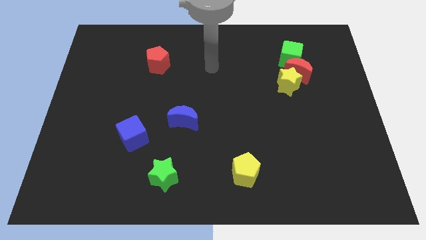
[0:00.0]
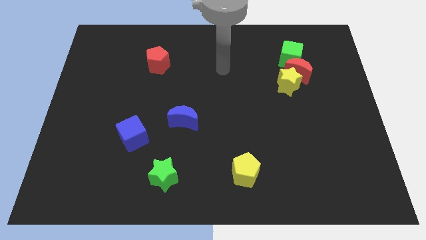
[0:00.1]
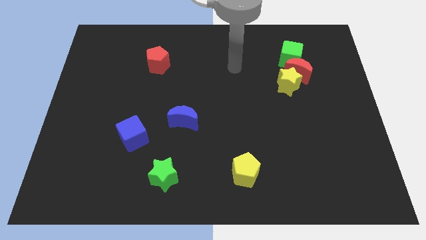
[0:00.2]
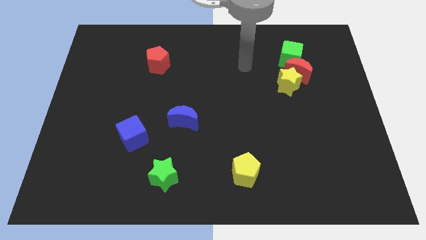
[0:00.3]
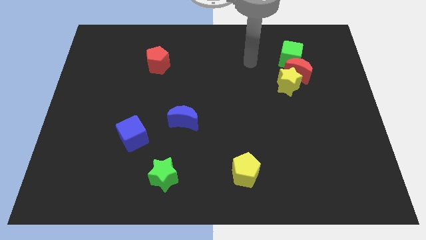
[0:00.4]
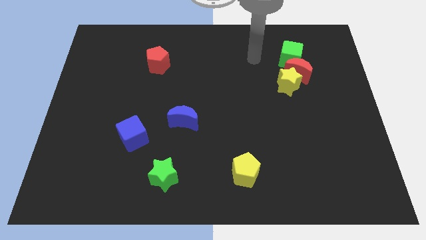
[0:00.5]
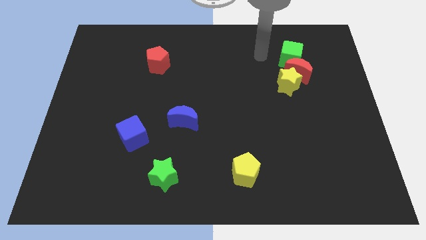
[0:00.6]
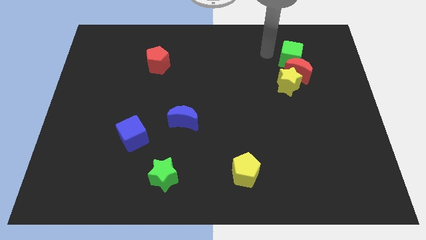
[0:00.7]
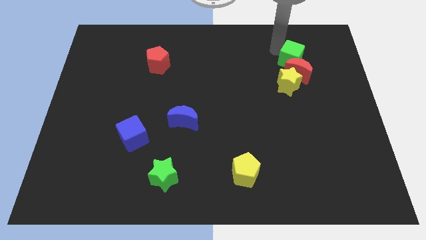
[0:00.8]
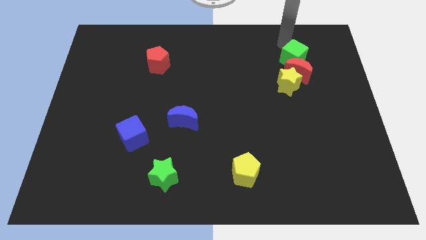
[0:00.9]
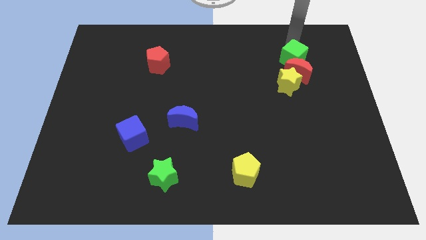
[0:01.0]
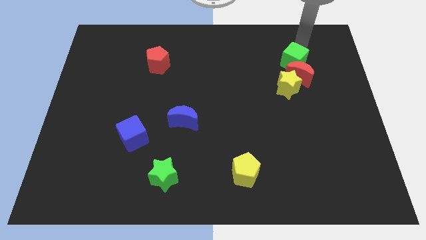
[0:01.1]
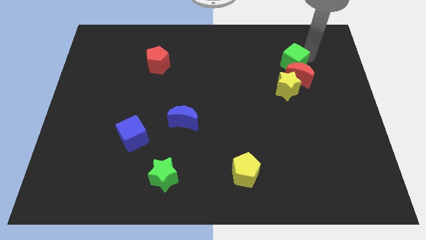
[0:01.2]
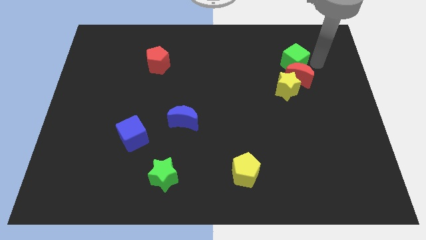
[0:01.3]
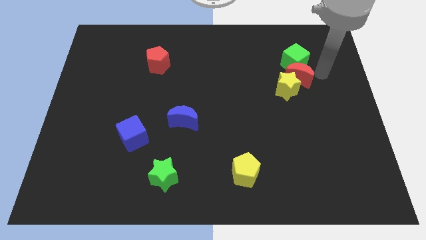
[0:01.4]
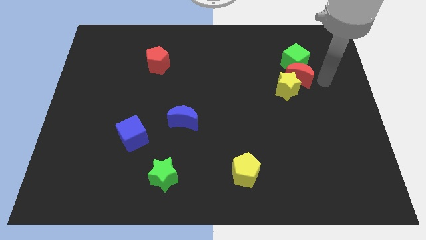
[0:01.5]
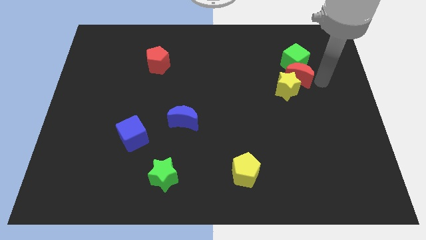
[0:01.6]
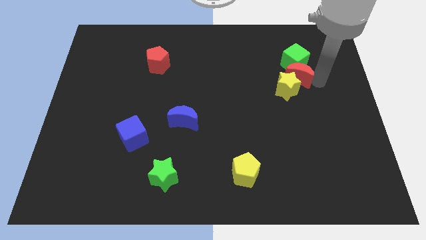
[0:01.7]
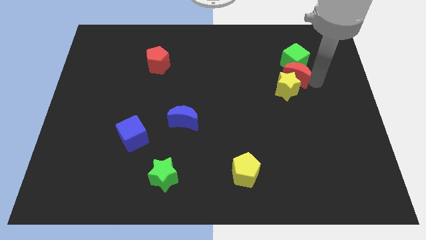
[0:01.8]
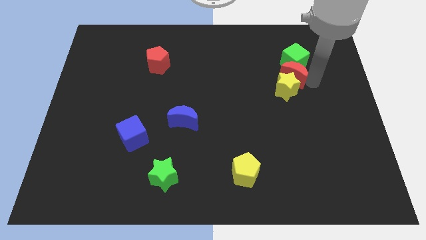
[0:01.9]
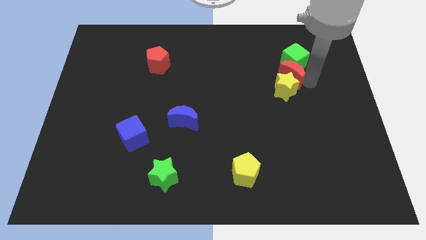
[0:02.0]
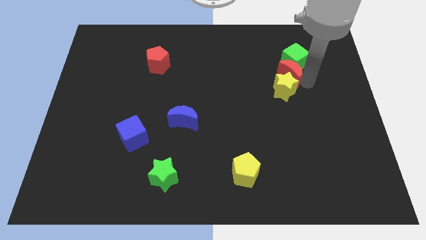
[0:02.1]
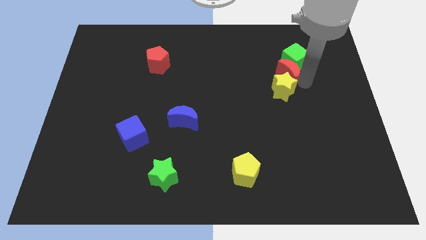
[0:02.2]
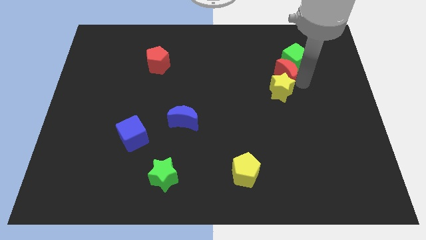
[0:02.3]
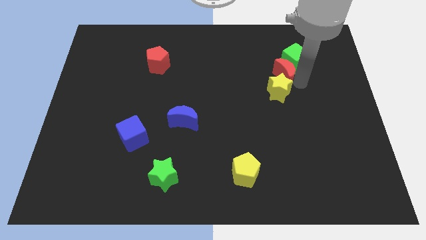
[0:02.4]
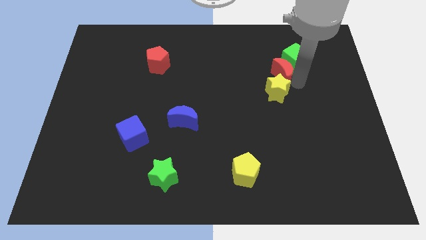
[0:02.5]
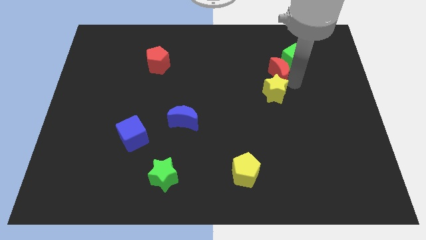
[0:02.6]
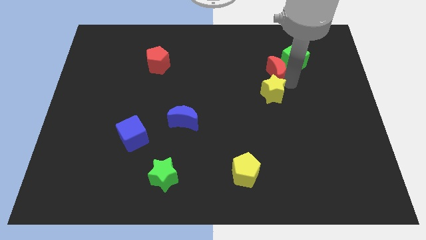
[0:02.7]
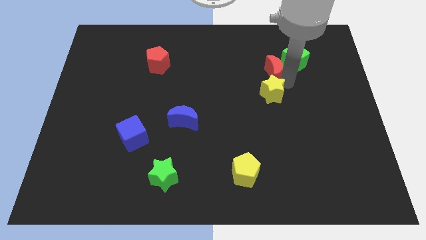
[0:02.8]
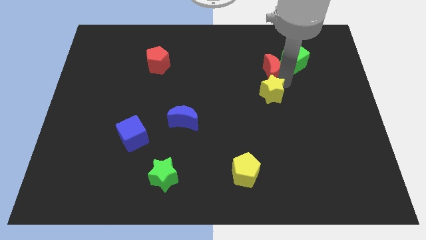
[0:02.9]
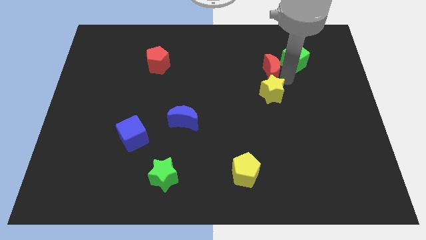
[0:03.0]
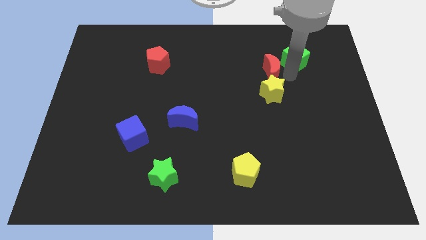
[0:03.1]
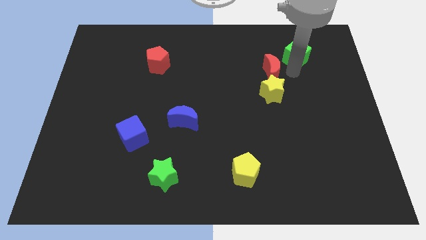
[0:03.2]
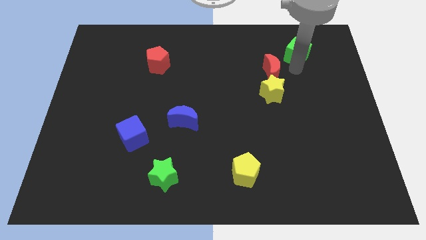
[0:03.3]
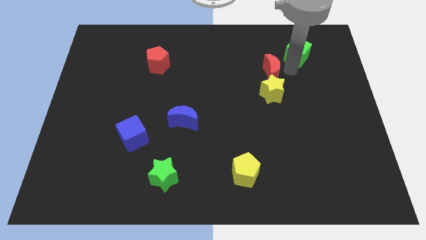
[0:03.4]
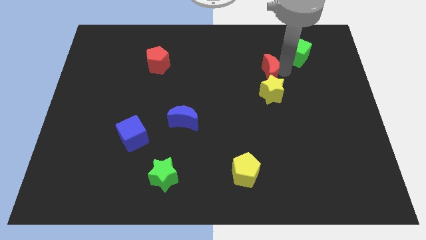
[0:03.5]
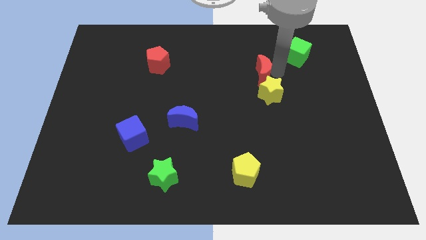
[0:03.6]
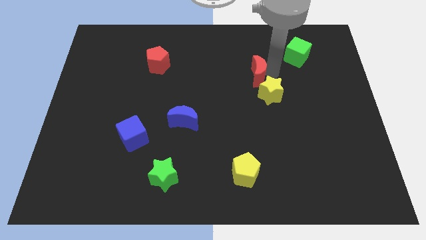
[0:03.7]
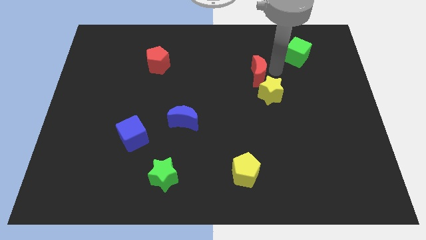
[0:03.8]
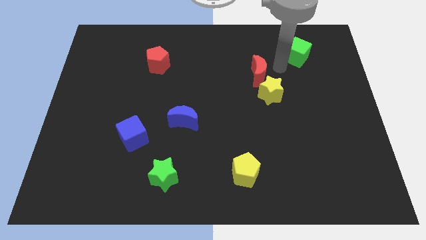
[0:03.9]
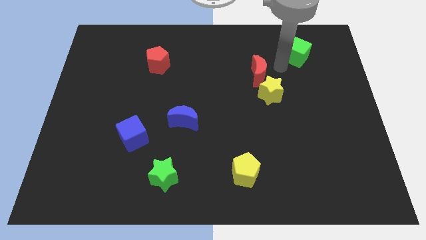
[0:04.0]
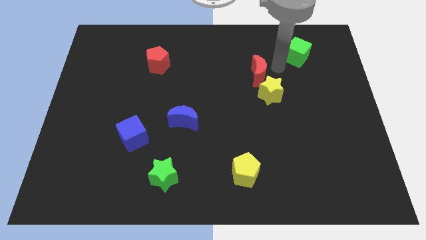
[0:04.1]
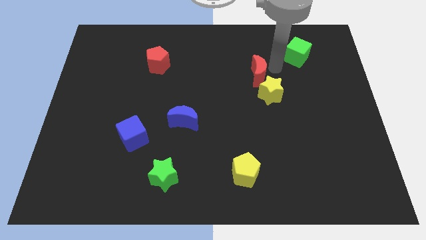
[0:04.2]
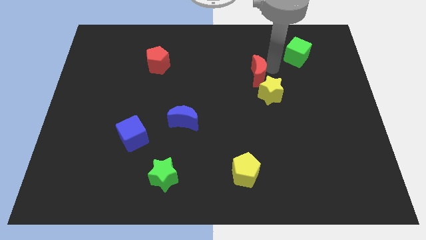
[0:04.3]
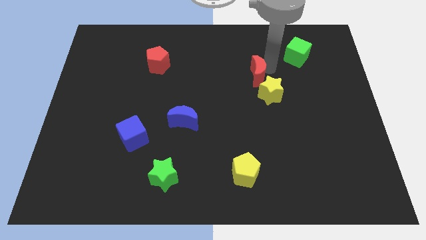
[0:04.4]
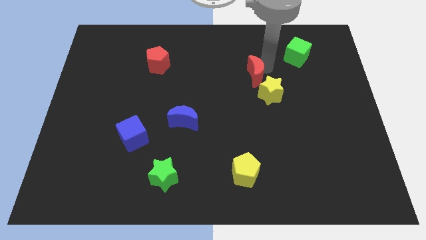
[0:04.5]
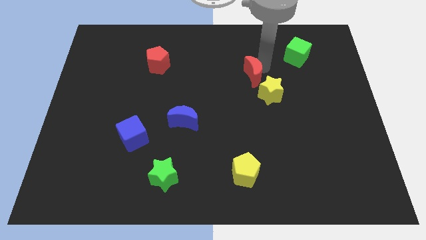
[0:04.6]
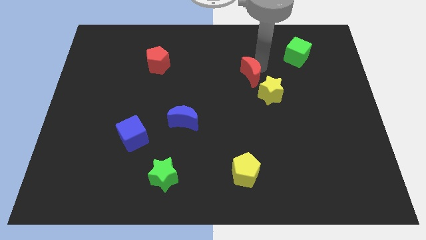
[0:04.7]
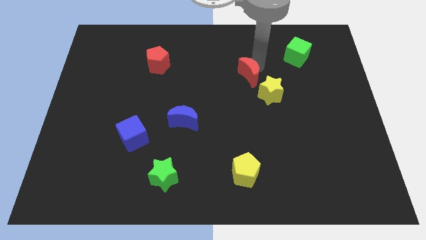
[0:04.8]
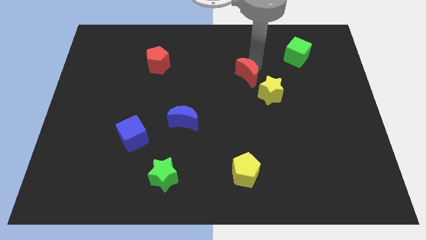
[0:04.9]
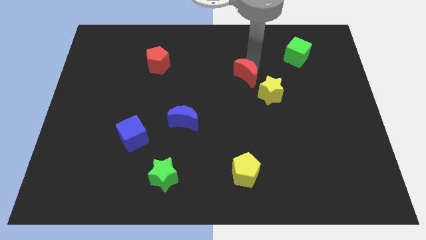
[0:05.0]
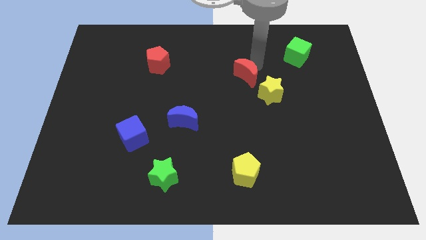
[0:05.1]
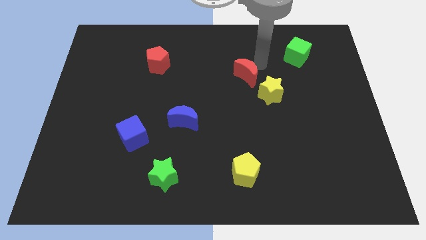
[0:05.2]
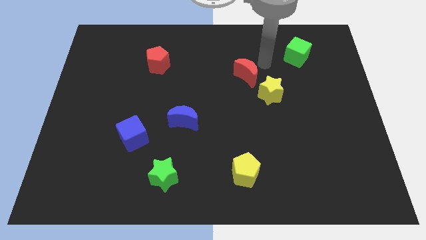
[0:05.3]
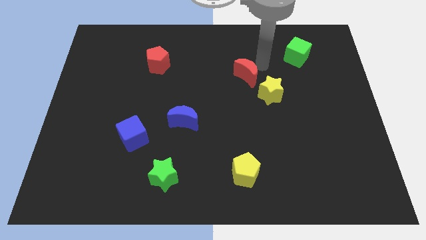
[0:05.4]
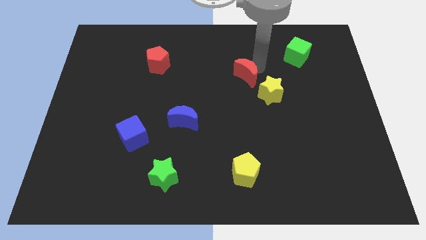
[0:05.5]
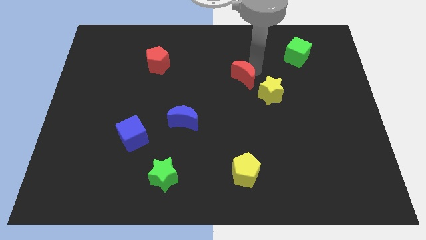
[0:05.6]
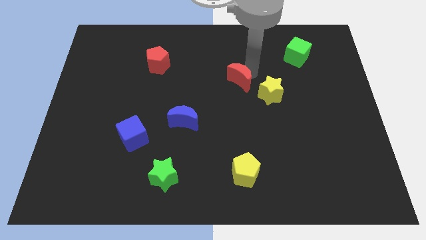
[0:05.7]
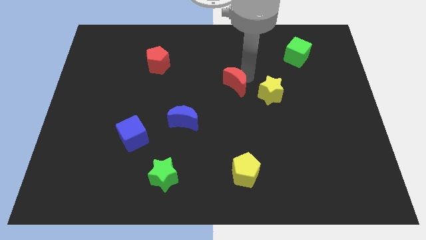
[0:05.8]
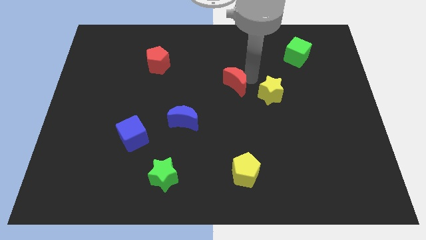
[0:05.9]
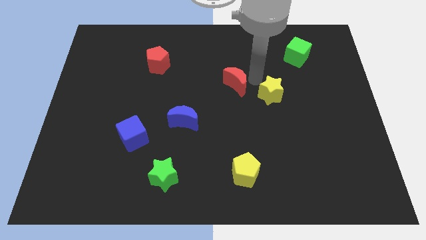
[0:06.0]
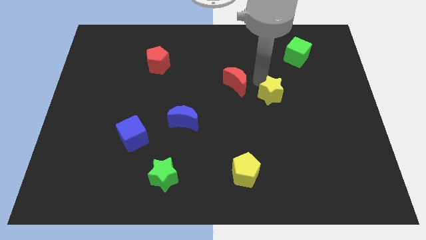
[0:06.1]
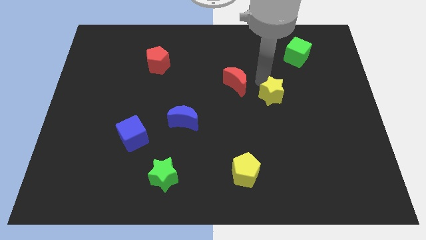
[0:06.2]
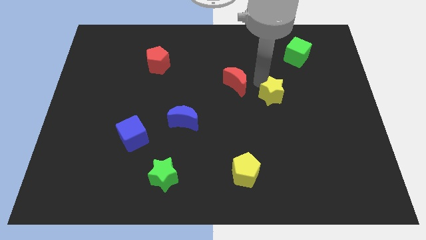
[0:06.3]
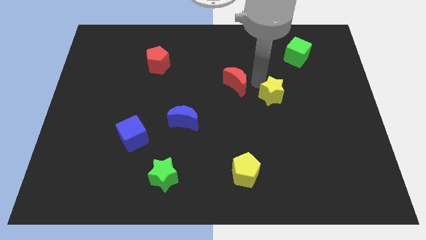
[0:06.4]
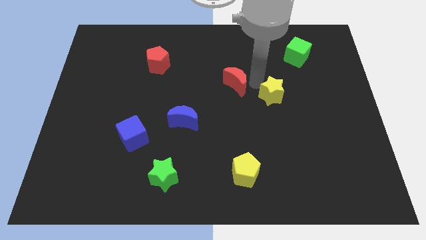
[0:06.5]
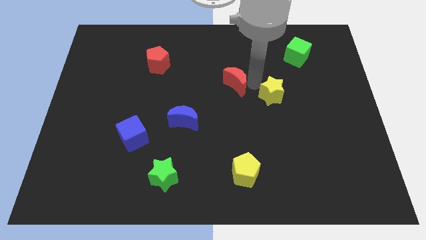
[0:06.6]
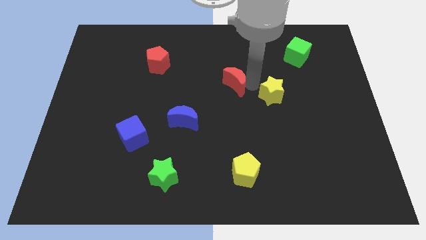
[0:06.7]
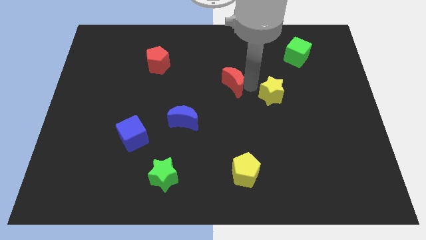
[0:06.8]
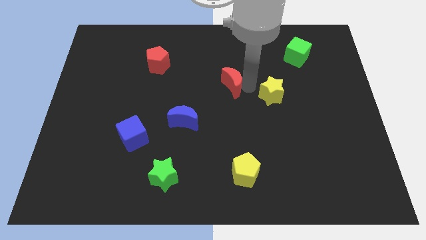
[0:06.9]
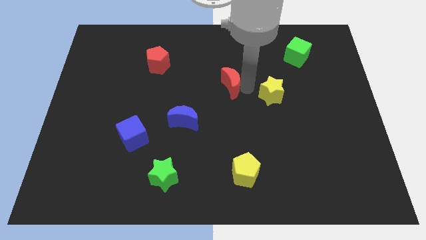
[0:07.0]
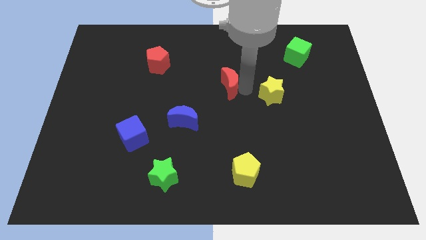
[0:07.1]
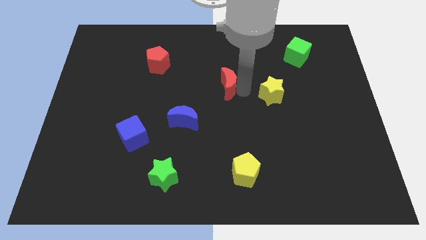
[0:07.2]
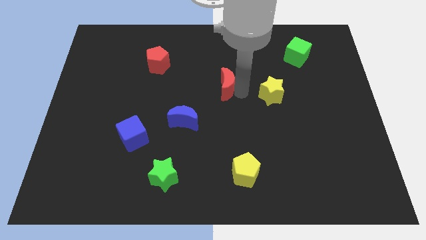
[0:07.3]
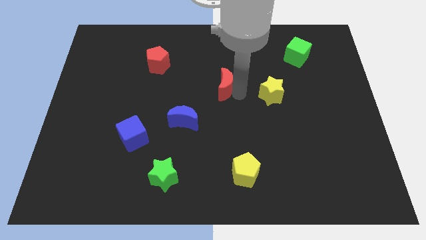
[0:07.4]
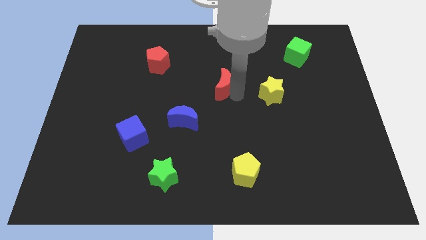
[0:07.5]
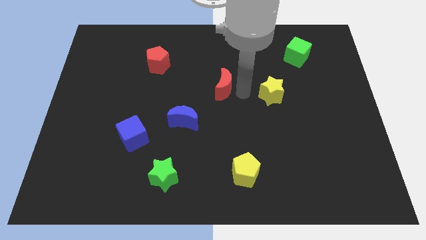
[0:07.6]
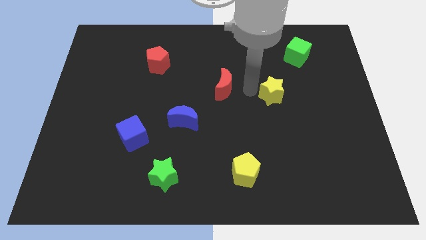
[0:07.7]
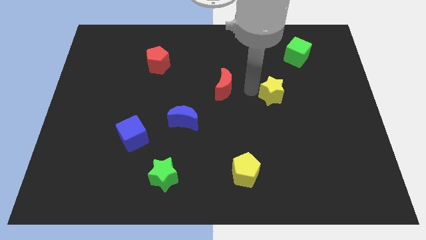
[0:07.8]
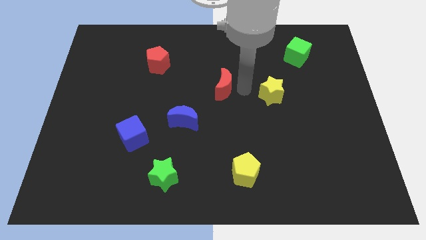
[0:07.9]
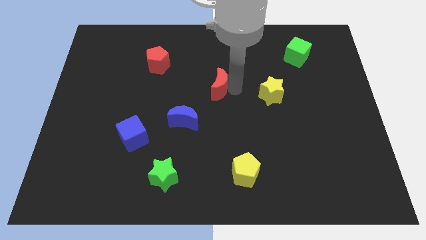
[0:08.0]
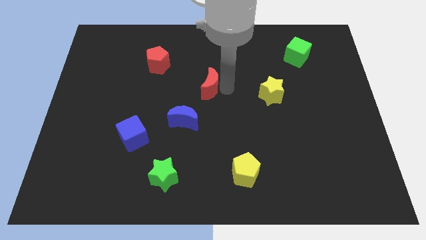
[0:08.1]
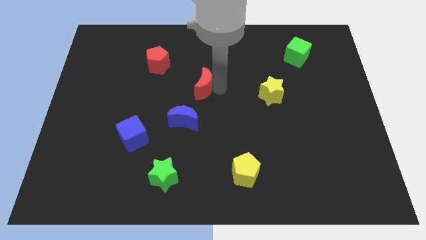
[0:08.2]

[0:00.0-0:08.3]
move the red moon to the top side of the blue moon
